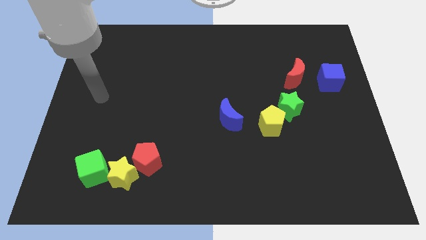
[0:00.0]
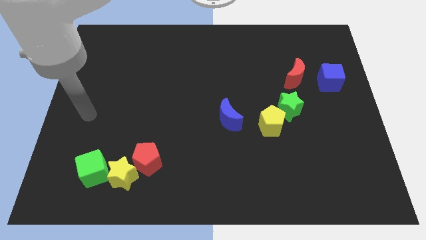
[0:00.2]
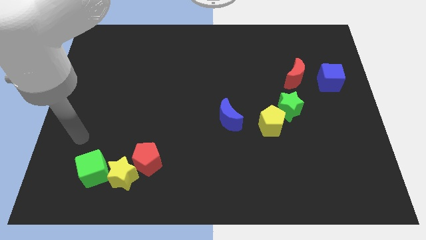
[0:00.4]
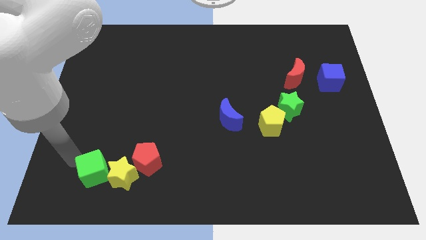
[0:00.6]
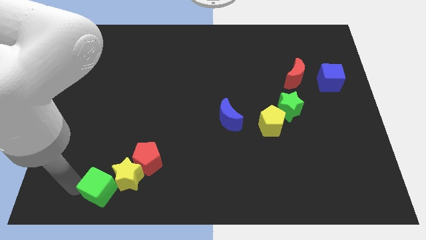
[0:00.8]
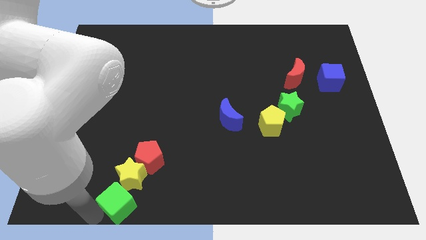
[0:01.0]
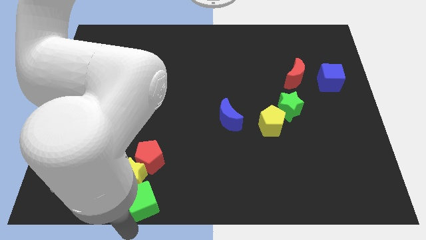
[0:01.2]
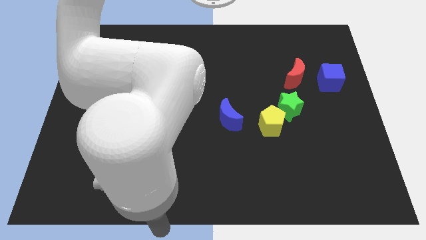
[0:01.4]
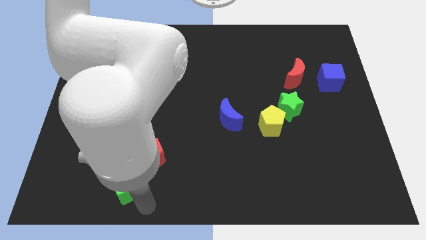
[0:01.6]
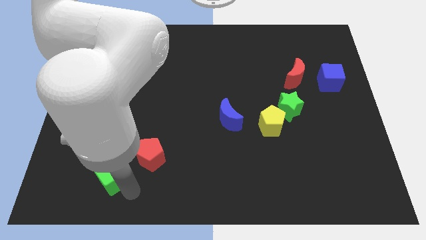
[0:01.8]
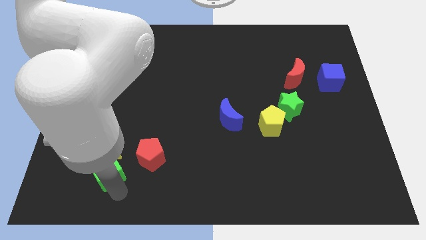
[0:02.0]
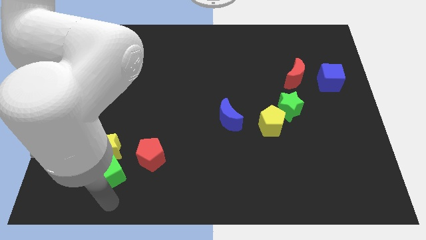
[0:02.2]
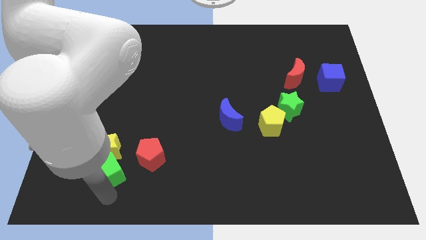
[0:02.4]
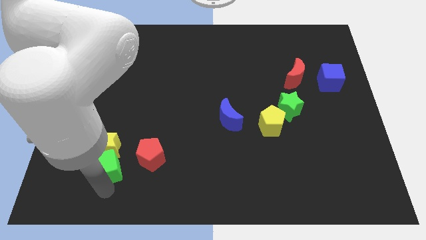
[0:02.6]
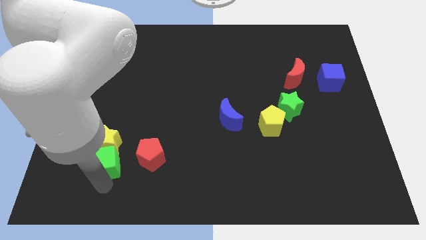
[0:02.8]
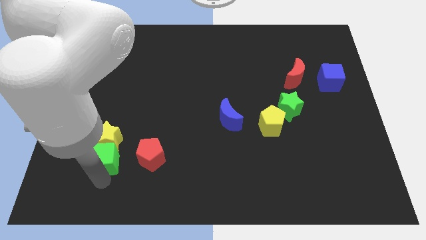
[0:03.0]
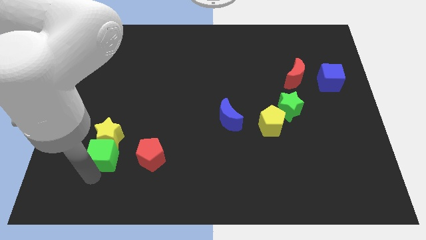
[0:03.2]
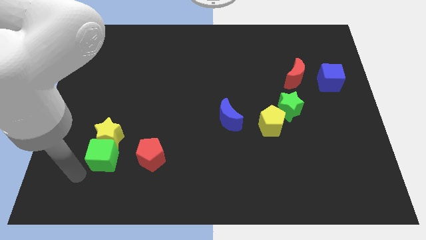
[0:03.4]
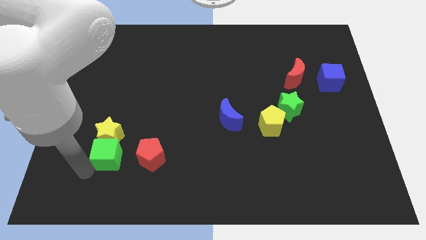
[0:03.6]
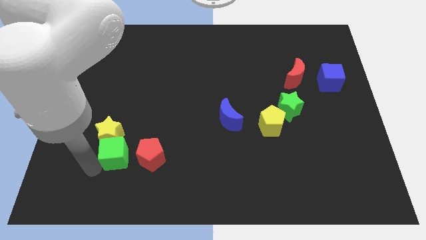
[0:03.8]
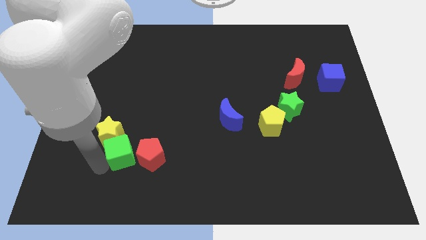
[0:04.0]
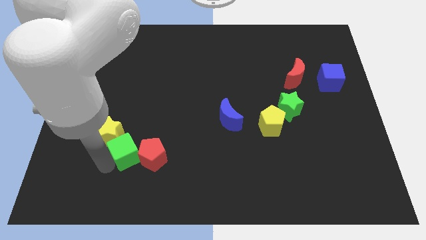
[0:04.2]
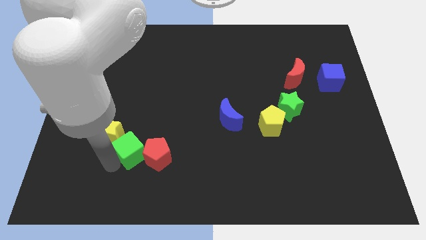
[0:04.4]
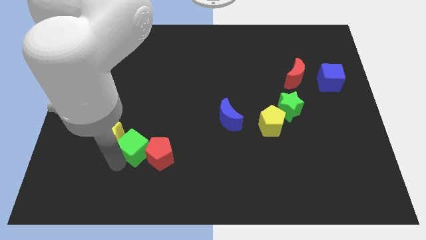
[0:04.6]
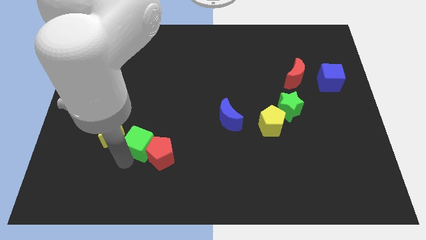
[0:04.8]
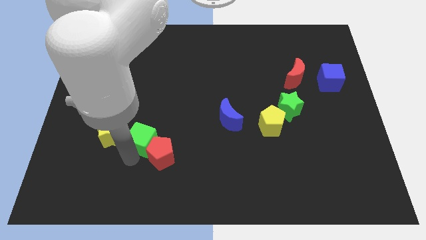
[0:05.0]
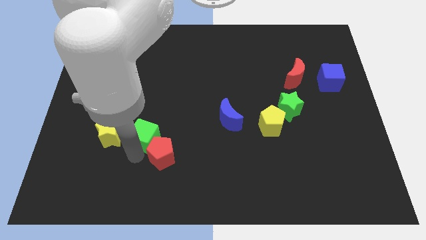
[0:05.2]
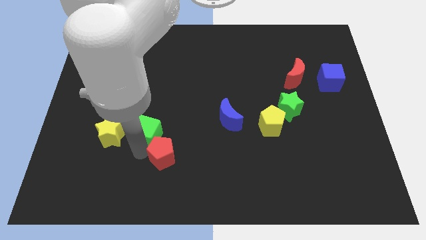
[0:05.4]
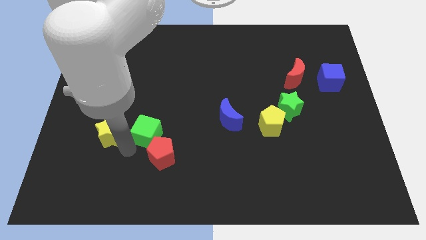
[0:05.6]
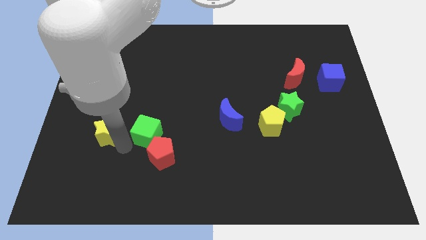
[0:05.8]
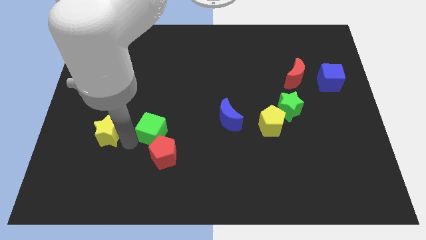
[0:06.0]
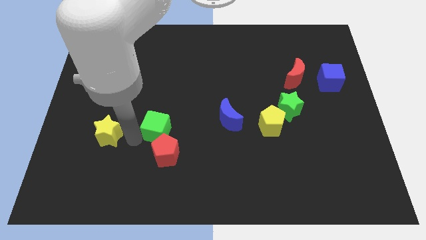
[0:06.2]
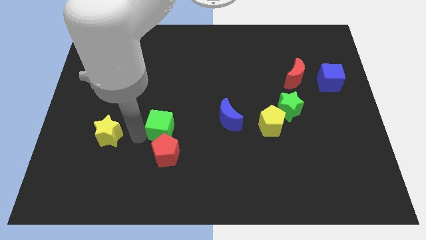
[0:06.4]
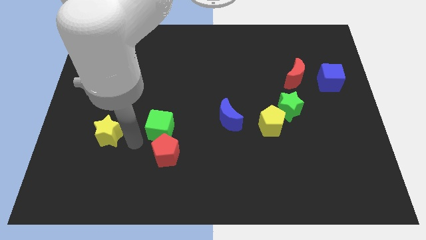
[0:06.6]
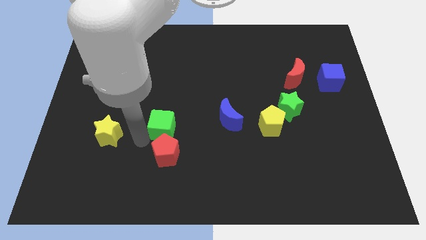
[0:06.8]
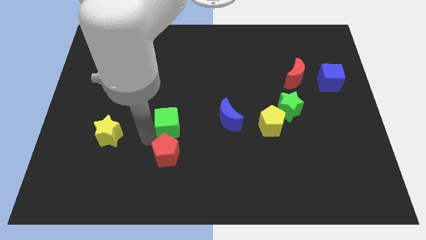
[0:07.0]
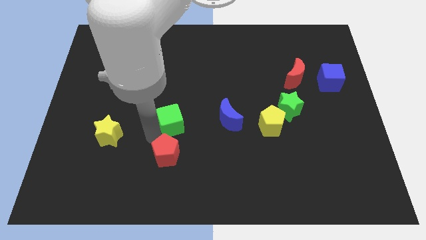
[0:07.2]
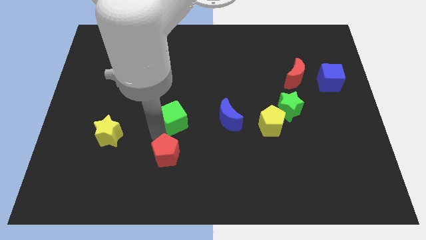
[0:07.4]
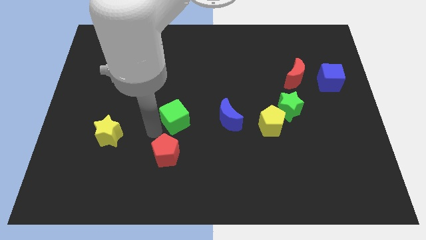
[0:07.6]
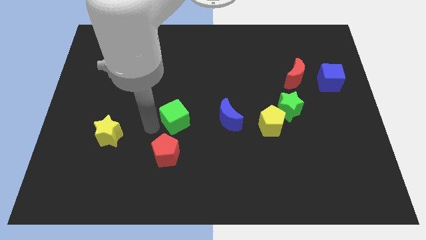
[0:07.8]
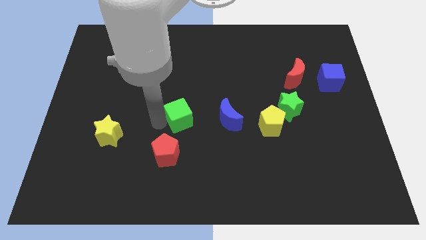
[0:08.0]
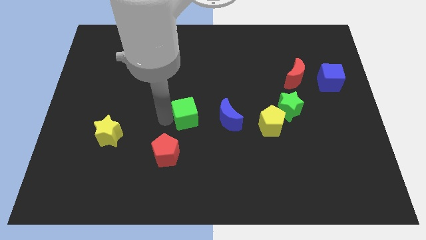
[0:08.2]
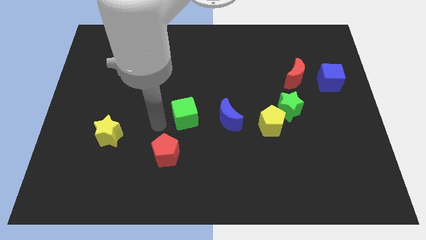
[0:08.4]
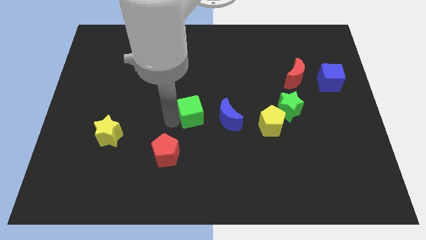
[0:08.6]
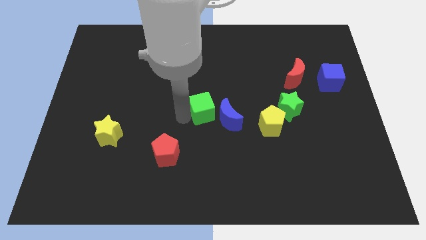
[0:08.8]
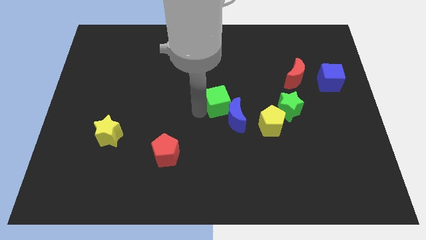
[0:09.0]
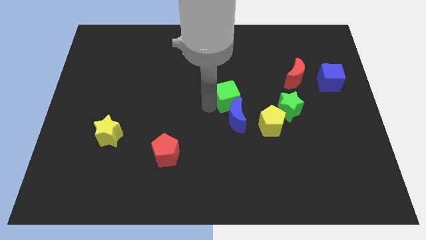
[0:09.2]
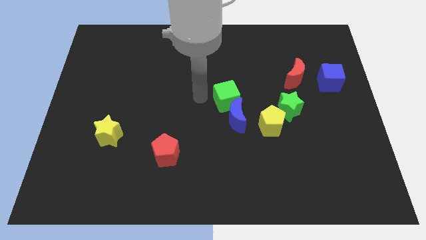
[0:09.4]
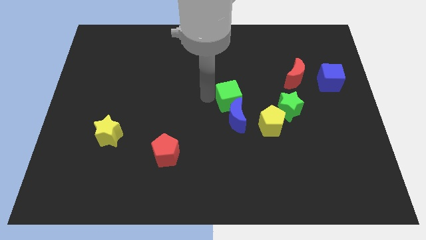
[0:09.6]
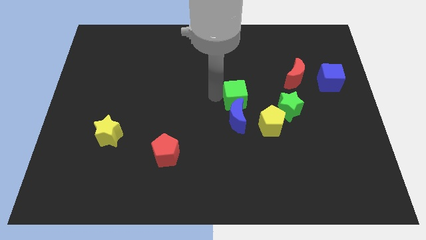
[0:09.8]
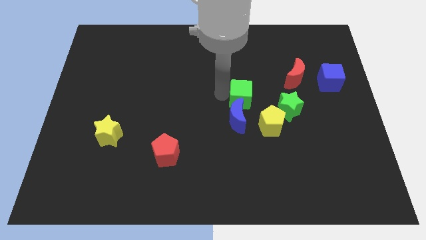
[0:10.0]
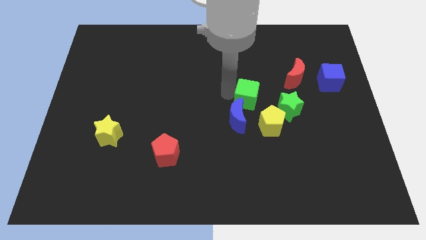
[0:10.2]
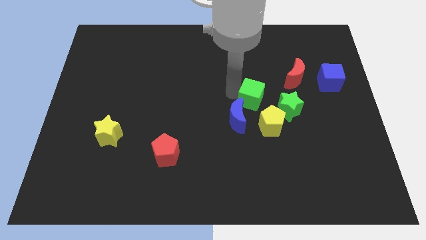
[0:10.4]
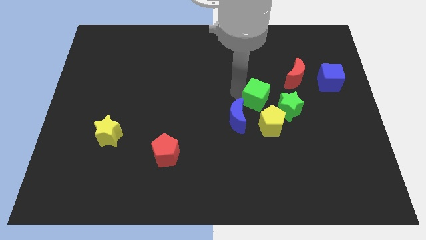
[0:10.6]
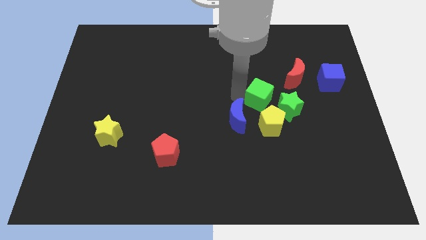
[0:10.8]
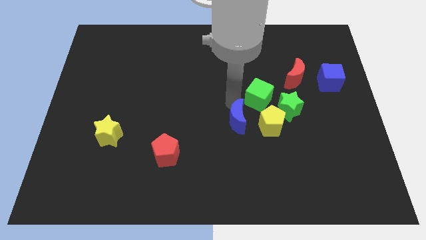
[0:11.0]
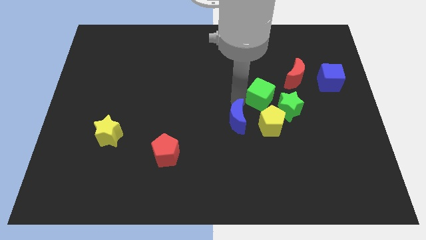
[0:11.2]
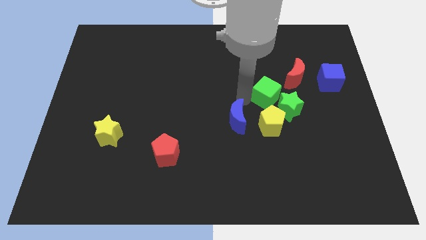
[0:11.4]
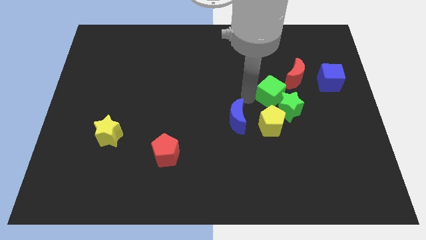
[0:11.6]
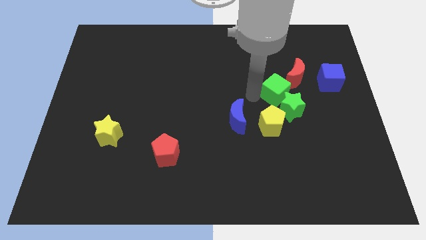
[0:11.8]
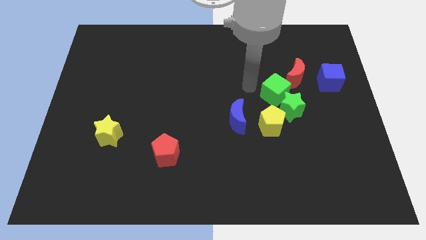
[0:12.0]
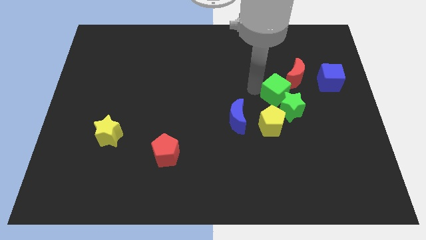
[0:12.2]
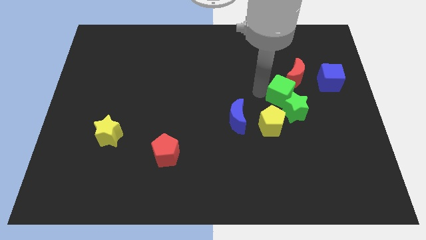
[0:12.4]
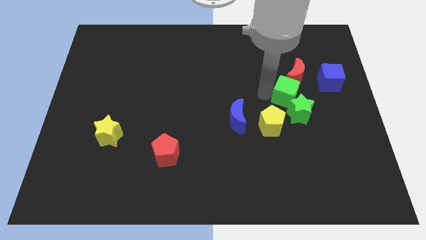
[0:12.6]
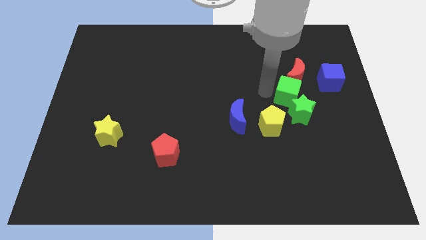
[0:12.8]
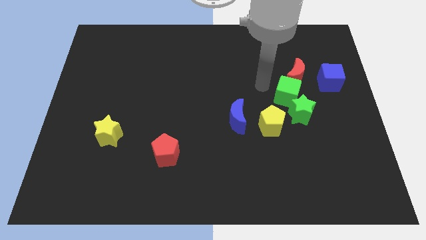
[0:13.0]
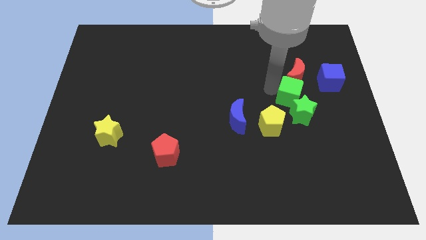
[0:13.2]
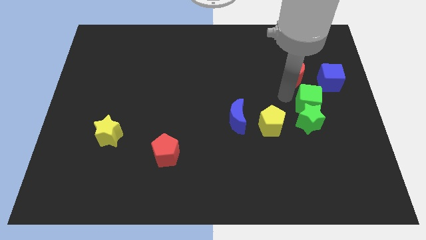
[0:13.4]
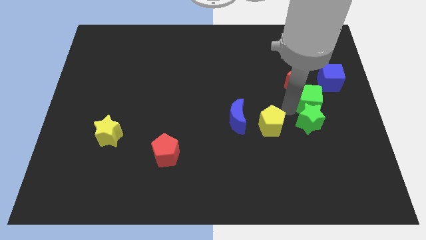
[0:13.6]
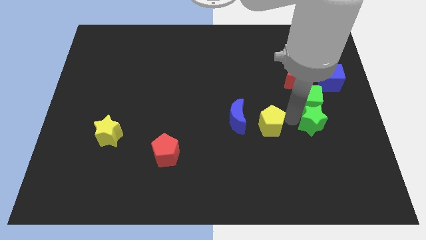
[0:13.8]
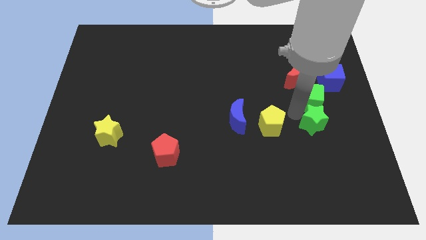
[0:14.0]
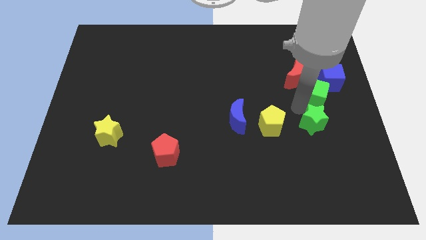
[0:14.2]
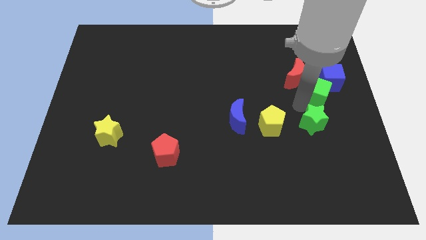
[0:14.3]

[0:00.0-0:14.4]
put the green cube towards the blue cube
